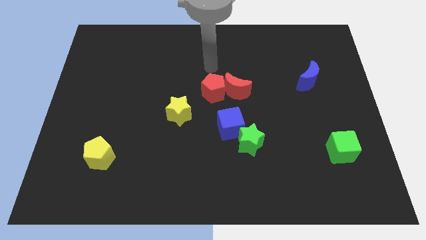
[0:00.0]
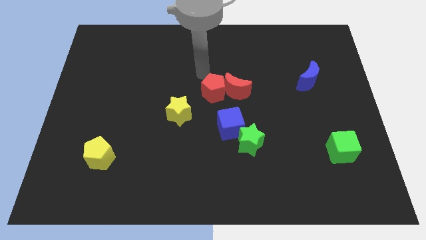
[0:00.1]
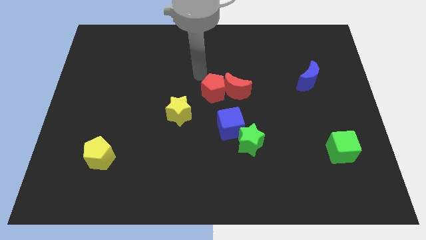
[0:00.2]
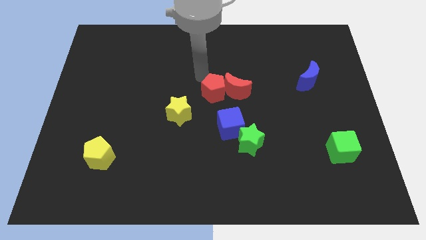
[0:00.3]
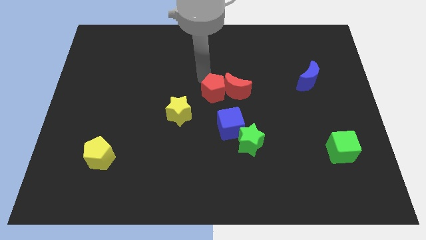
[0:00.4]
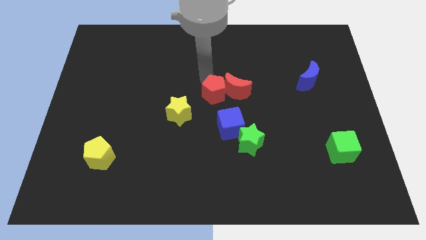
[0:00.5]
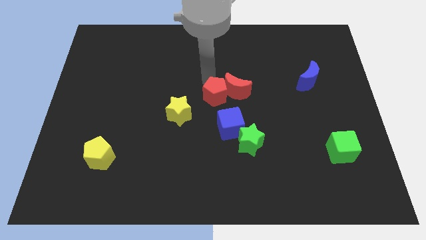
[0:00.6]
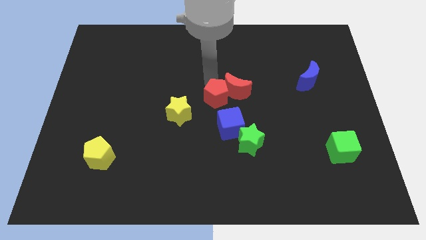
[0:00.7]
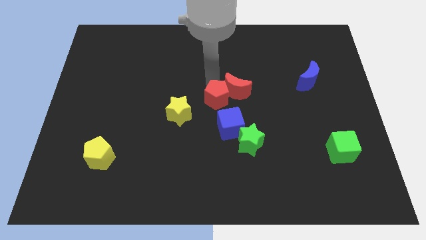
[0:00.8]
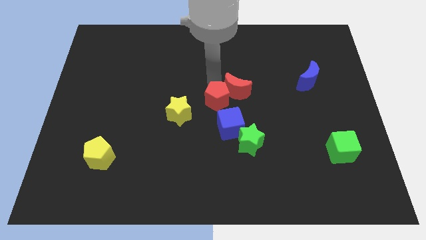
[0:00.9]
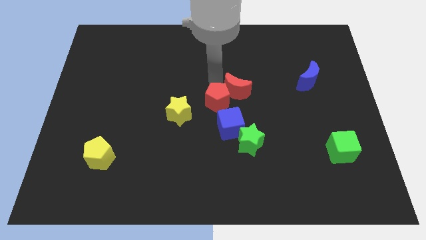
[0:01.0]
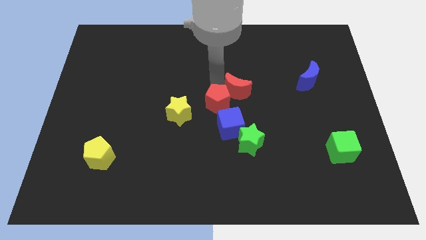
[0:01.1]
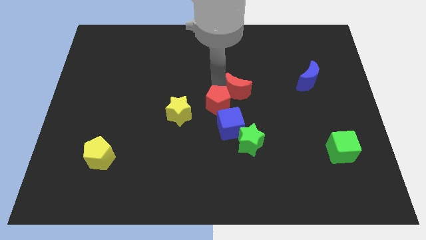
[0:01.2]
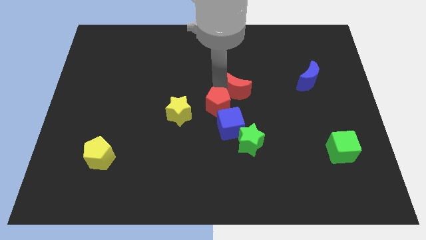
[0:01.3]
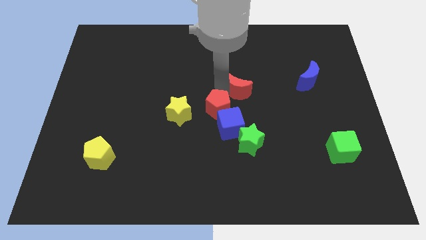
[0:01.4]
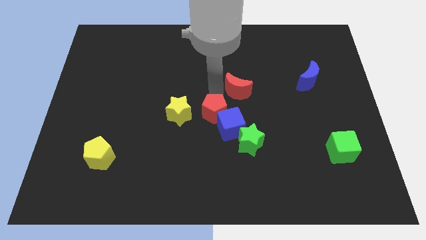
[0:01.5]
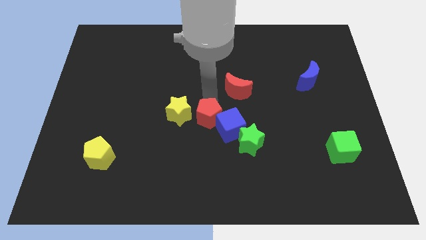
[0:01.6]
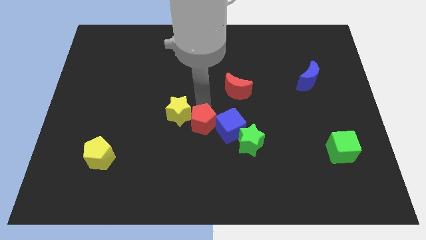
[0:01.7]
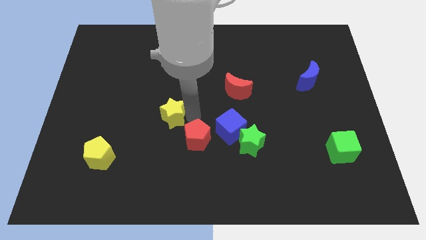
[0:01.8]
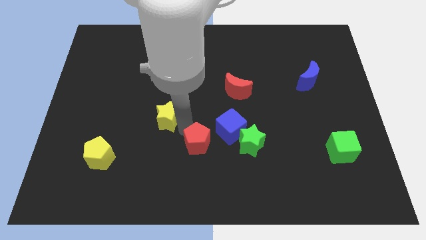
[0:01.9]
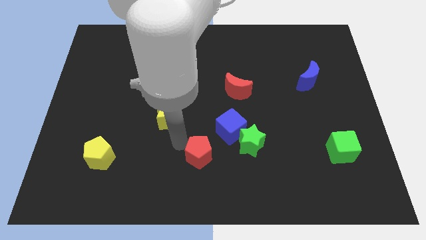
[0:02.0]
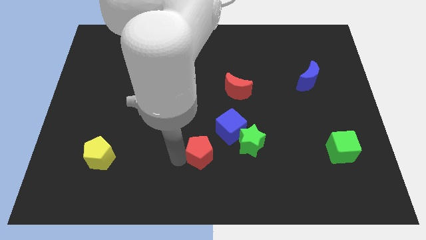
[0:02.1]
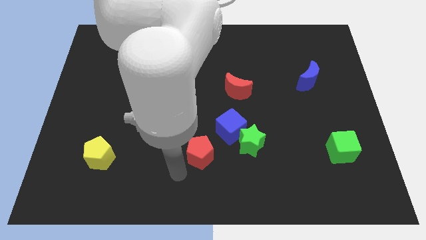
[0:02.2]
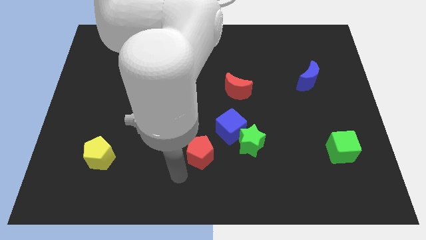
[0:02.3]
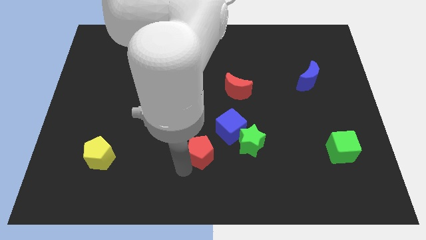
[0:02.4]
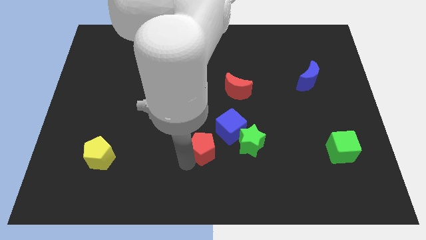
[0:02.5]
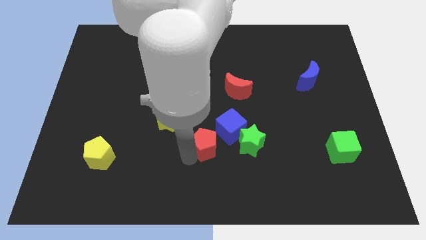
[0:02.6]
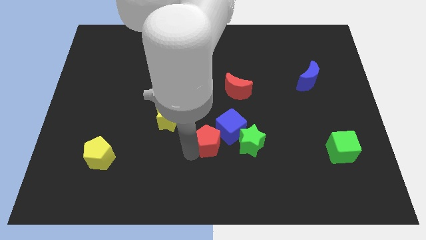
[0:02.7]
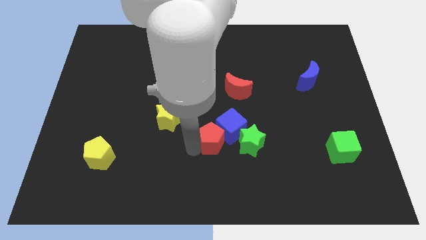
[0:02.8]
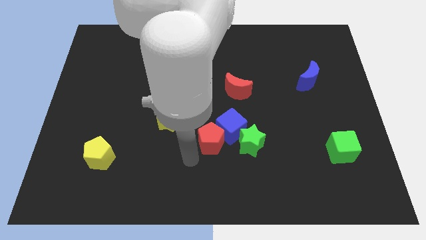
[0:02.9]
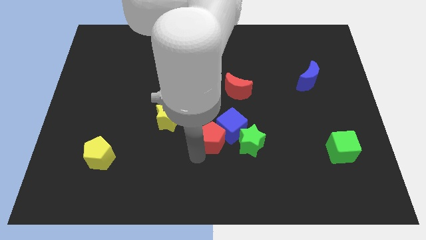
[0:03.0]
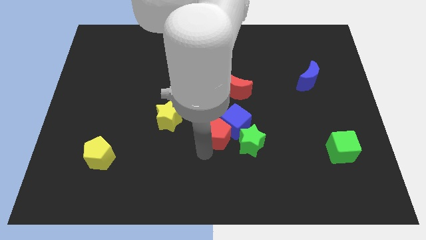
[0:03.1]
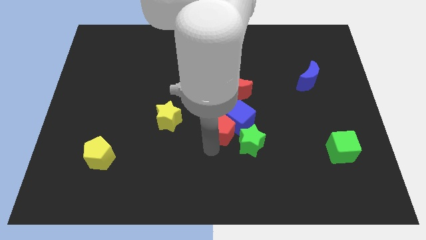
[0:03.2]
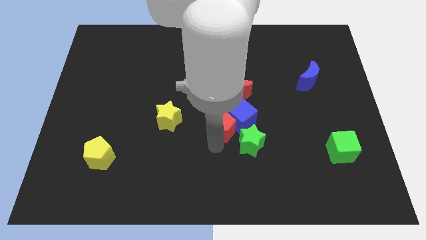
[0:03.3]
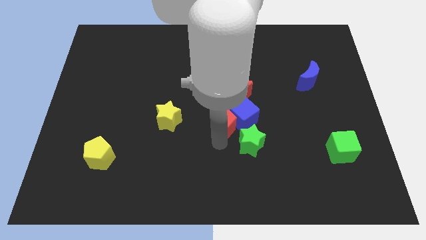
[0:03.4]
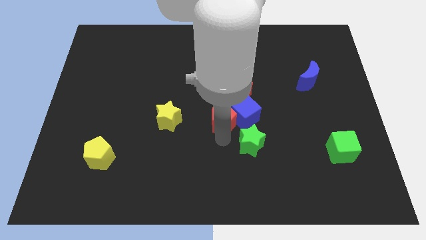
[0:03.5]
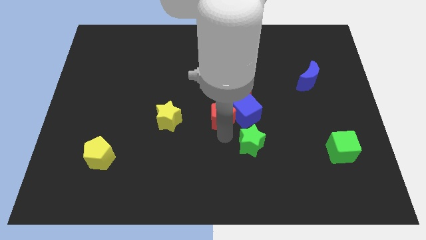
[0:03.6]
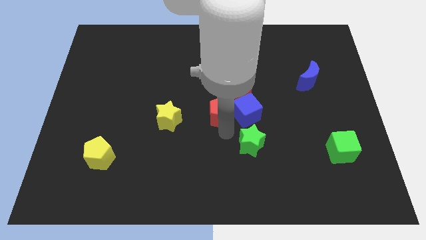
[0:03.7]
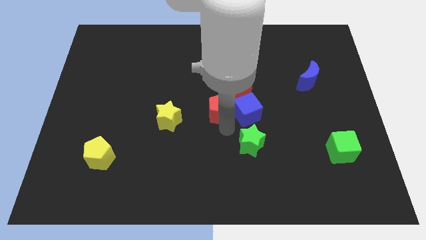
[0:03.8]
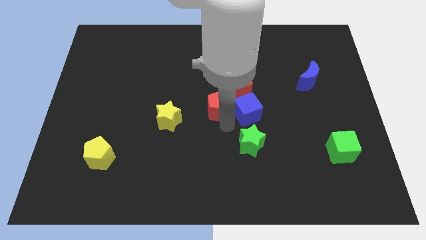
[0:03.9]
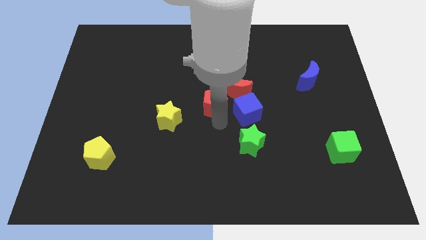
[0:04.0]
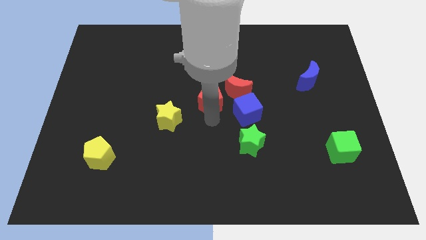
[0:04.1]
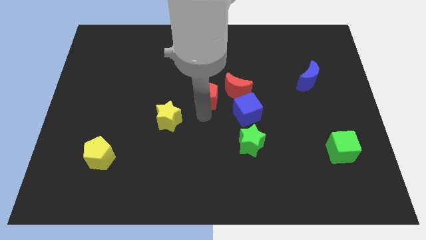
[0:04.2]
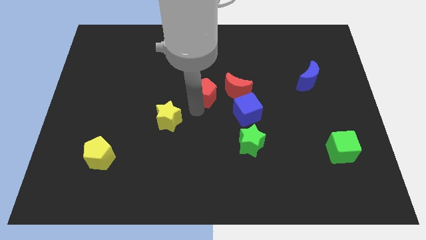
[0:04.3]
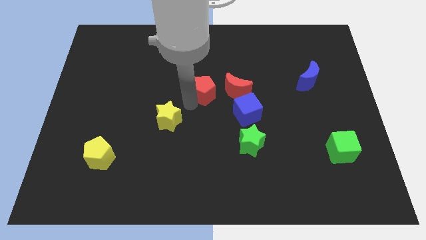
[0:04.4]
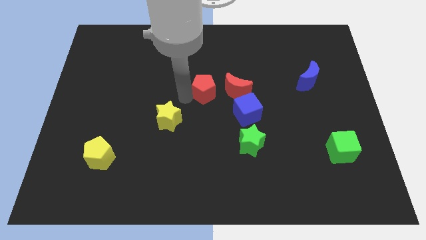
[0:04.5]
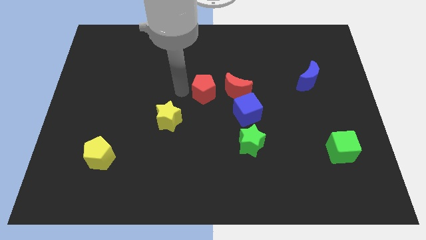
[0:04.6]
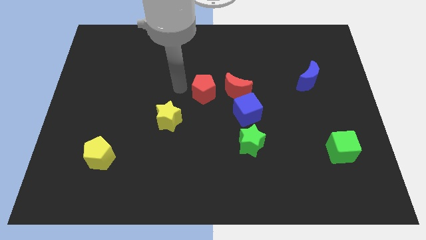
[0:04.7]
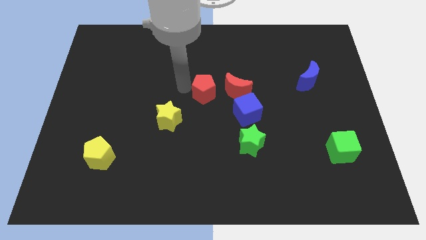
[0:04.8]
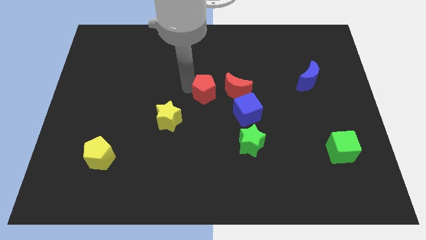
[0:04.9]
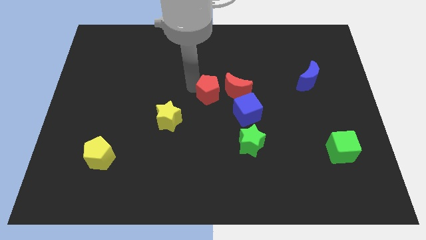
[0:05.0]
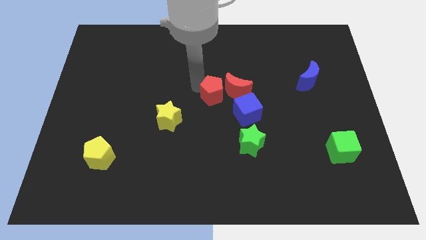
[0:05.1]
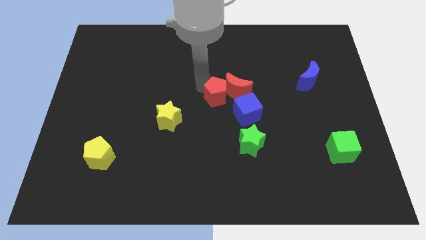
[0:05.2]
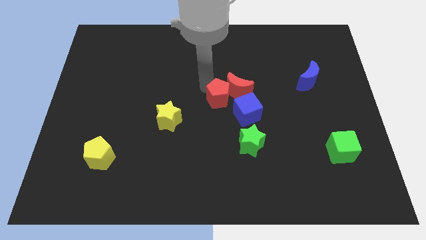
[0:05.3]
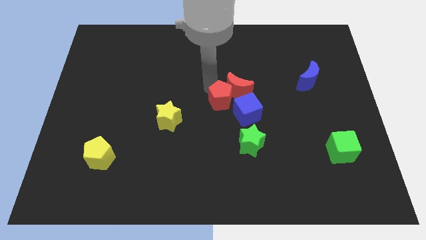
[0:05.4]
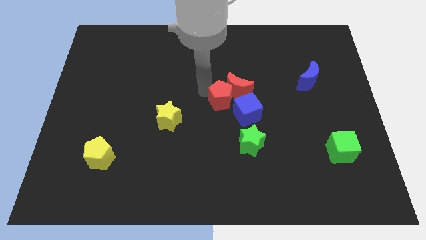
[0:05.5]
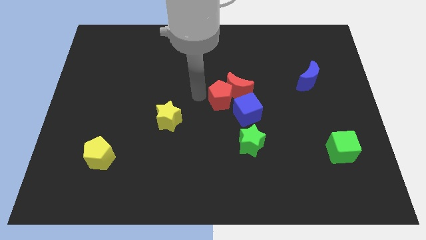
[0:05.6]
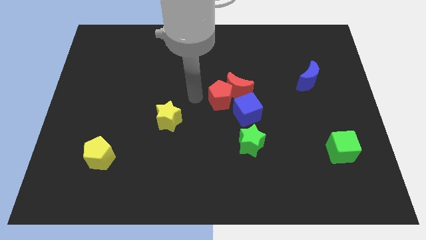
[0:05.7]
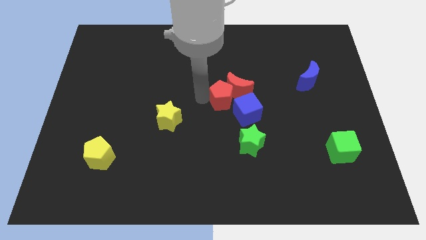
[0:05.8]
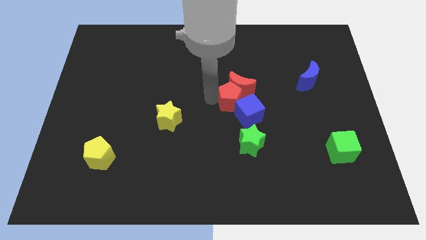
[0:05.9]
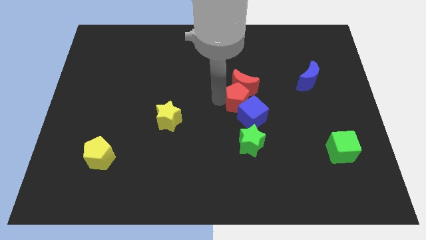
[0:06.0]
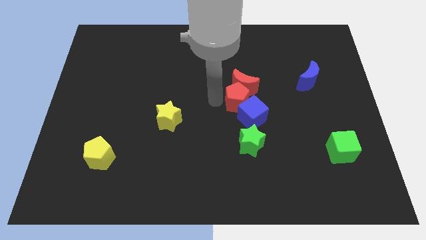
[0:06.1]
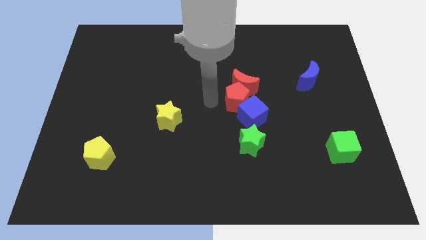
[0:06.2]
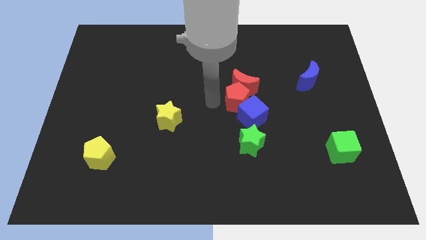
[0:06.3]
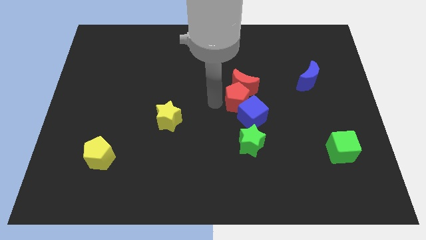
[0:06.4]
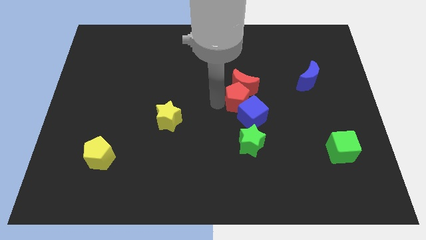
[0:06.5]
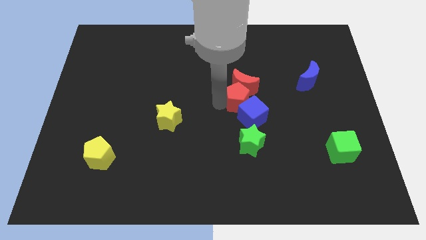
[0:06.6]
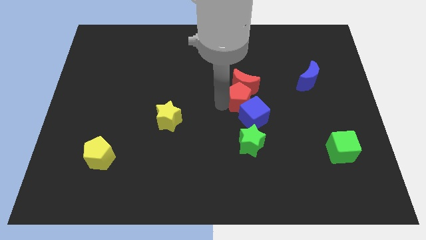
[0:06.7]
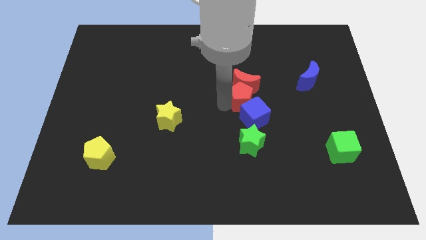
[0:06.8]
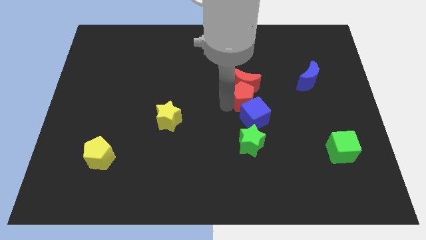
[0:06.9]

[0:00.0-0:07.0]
move the red pentagon somewhat to the right

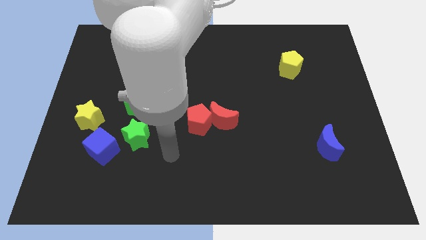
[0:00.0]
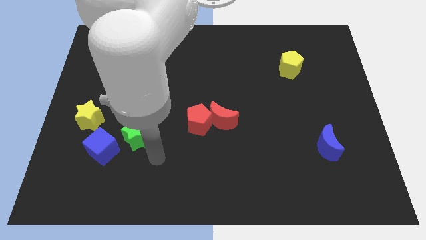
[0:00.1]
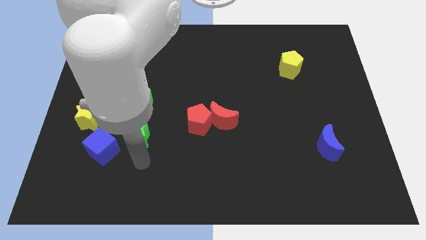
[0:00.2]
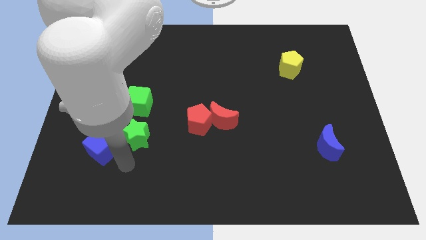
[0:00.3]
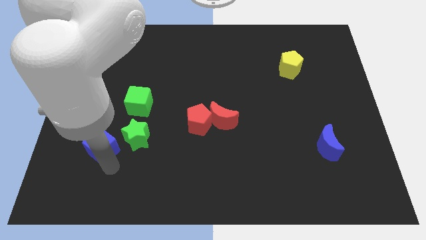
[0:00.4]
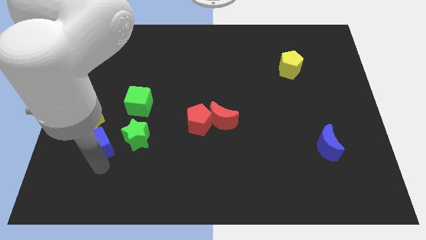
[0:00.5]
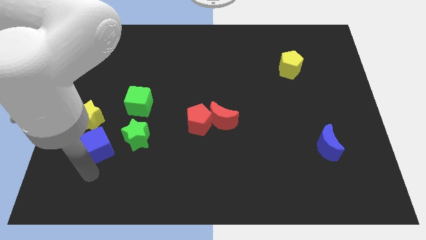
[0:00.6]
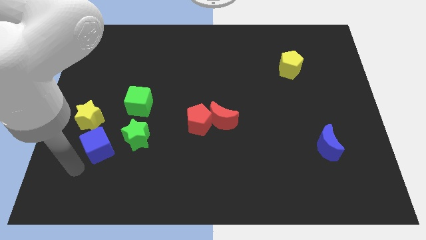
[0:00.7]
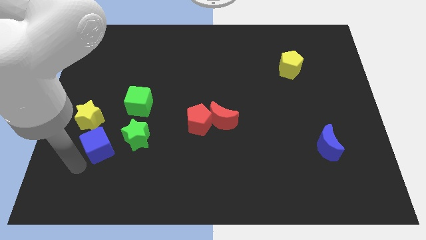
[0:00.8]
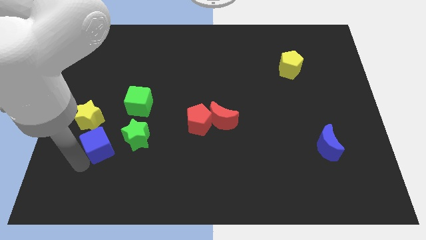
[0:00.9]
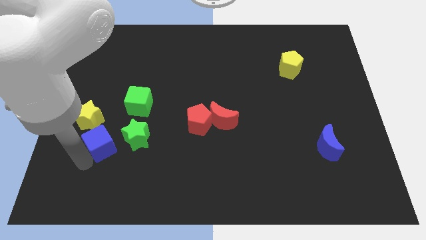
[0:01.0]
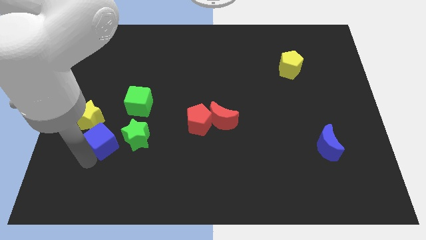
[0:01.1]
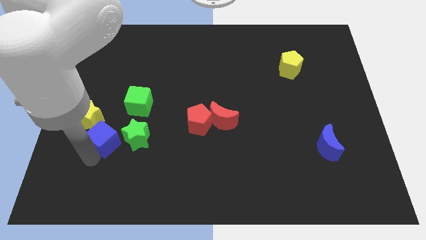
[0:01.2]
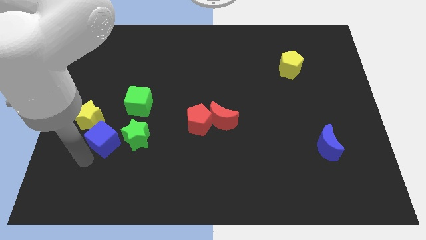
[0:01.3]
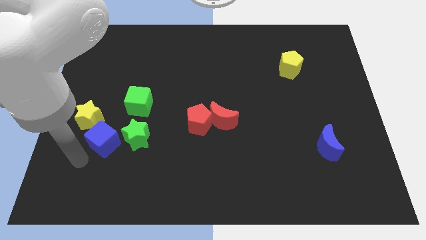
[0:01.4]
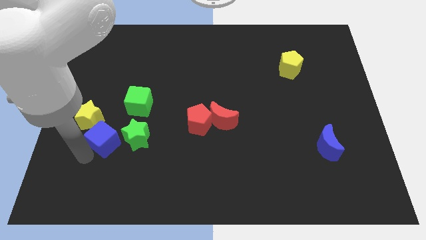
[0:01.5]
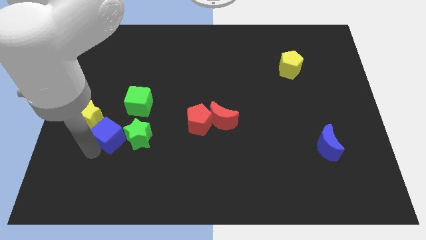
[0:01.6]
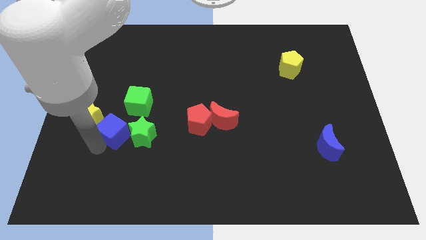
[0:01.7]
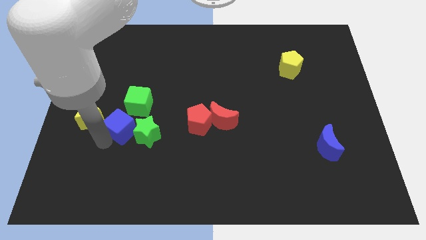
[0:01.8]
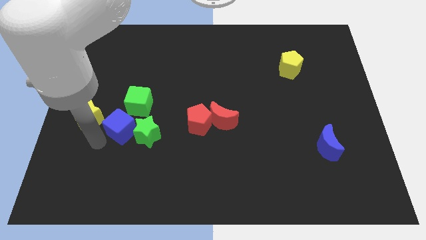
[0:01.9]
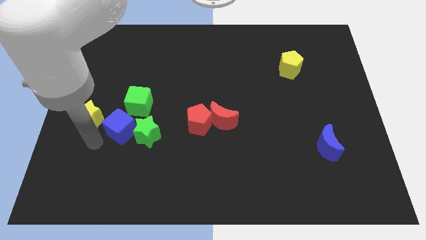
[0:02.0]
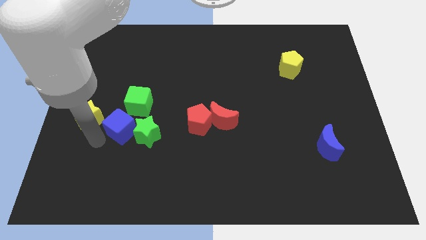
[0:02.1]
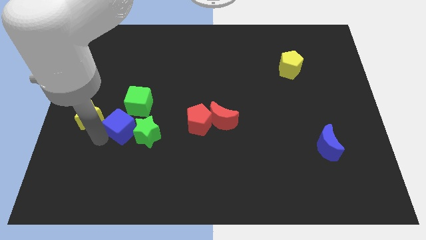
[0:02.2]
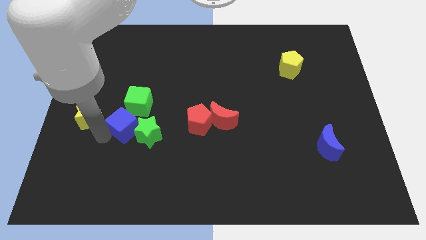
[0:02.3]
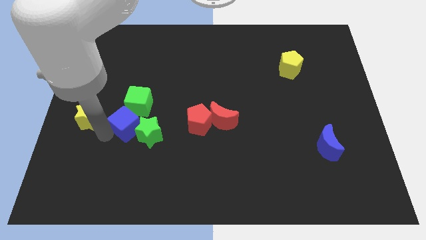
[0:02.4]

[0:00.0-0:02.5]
slightly move the blue cube diagonally up and to the right
